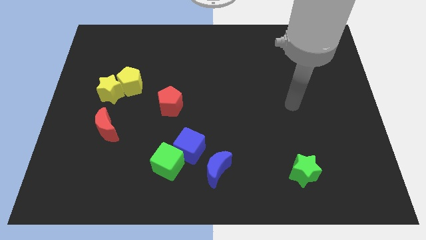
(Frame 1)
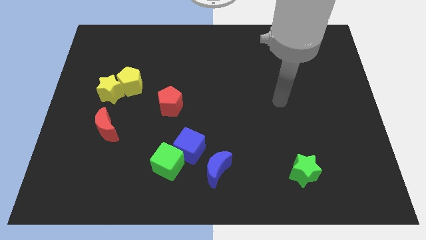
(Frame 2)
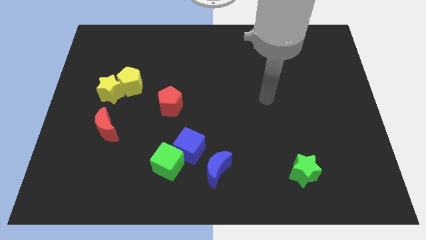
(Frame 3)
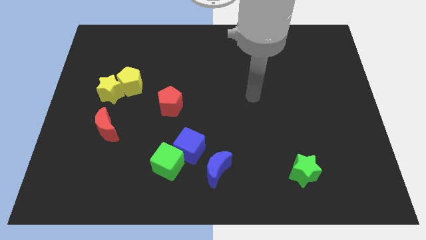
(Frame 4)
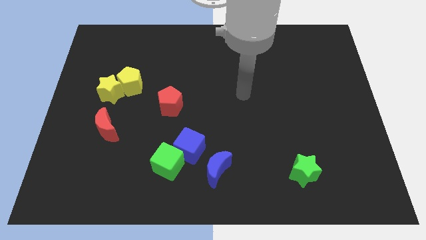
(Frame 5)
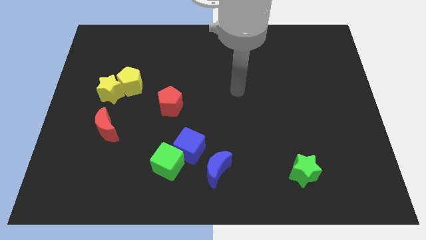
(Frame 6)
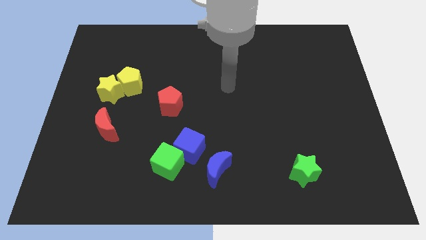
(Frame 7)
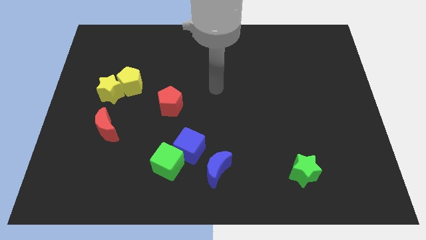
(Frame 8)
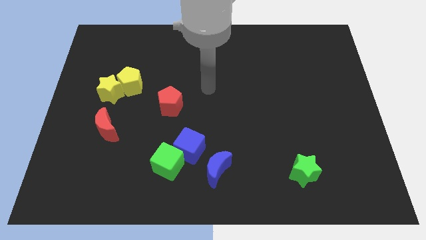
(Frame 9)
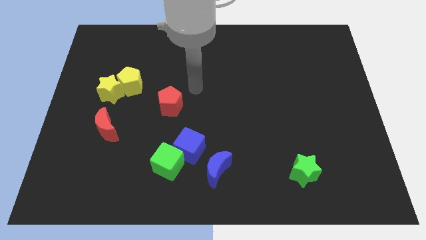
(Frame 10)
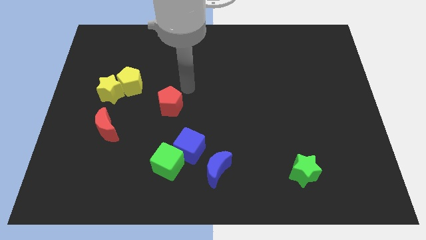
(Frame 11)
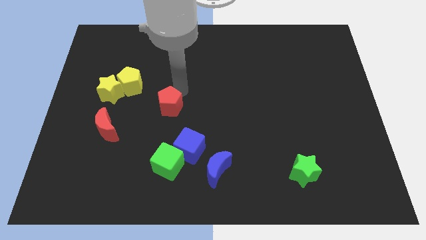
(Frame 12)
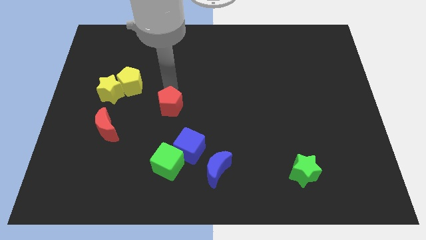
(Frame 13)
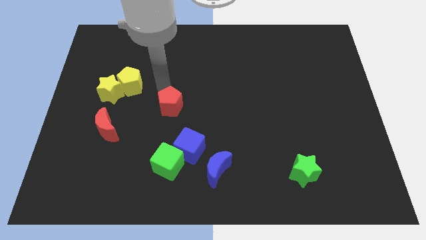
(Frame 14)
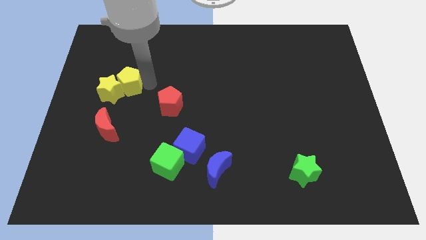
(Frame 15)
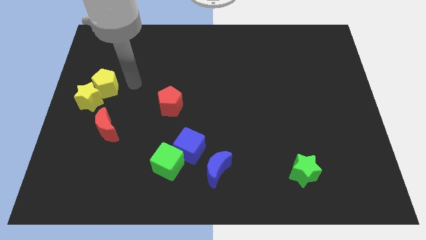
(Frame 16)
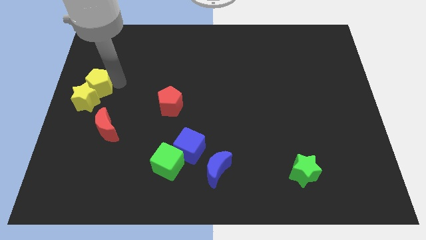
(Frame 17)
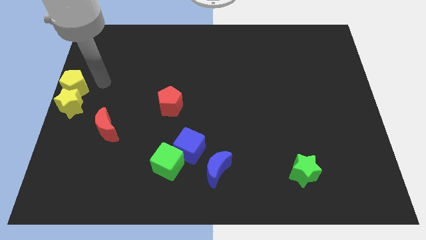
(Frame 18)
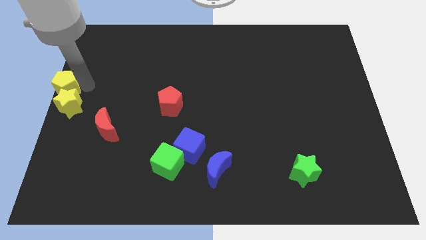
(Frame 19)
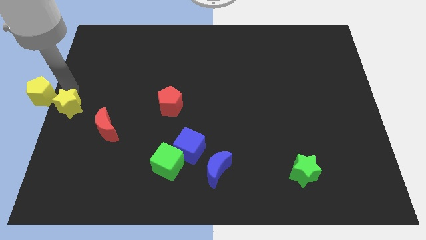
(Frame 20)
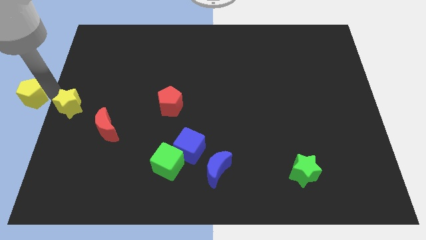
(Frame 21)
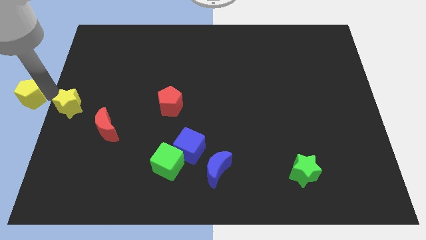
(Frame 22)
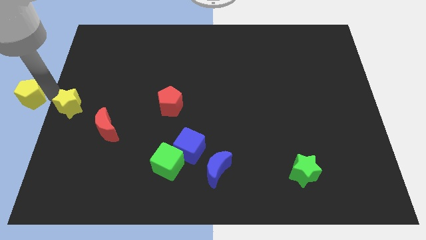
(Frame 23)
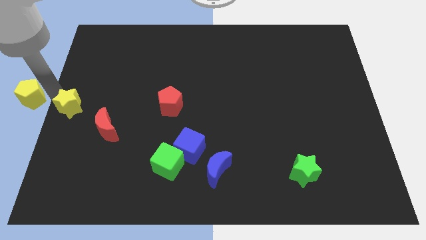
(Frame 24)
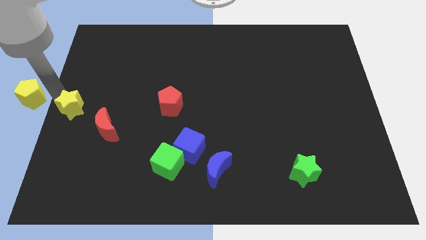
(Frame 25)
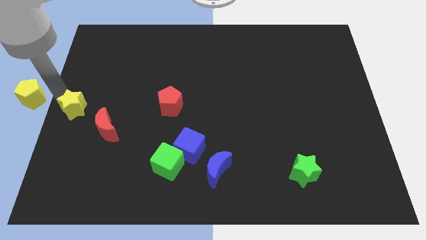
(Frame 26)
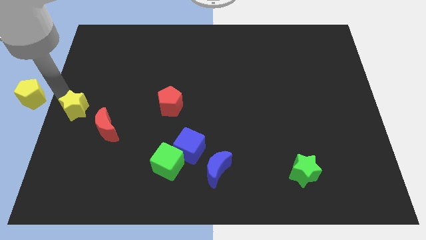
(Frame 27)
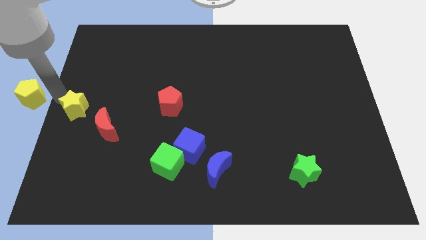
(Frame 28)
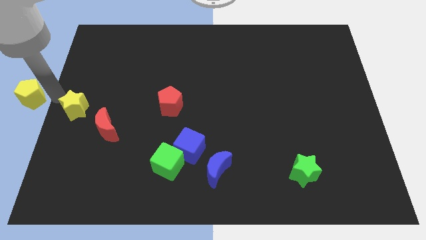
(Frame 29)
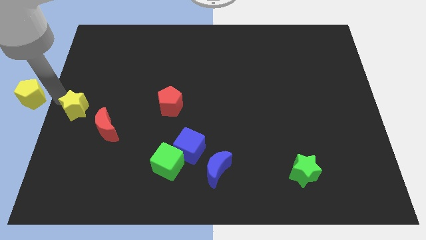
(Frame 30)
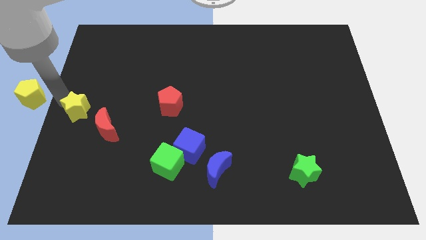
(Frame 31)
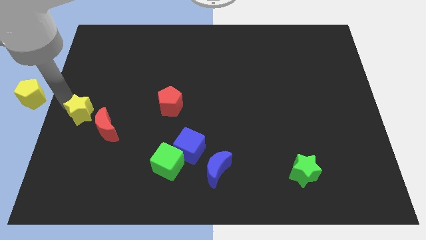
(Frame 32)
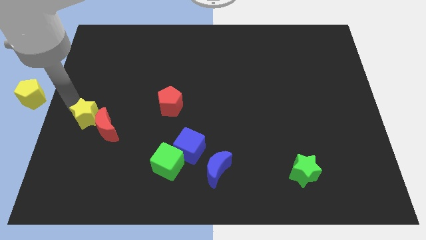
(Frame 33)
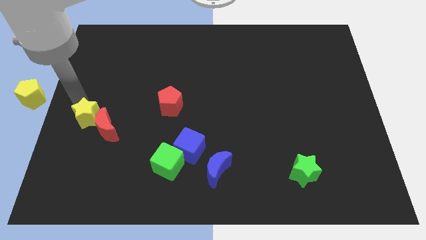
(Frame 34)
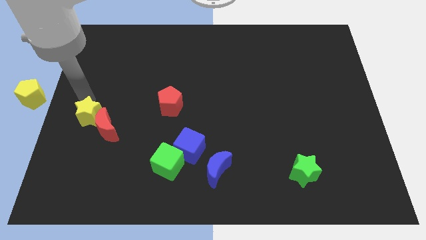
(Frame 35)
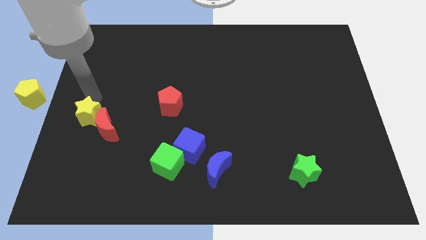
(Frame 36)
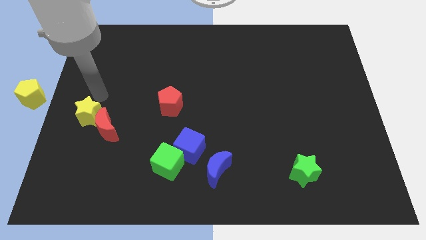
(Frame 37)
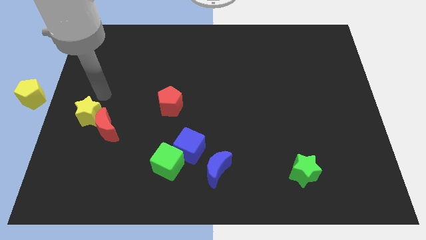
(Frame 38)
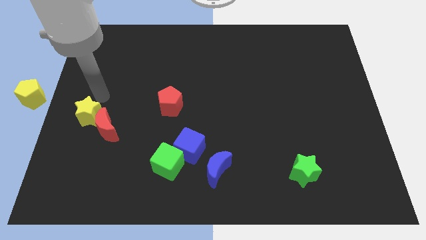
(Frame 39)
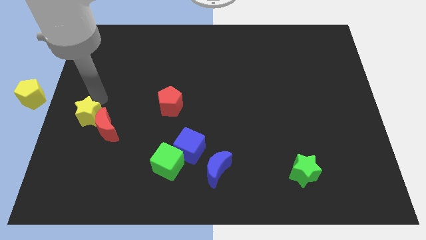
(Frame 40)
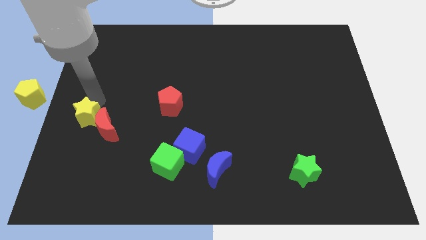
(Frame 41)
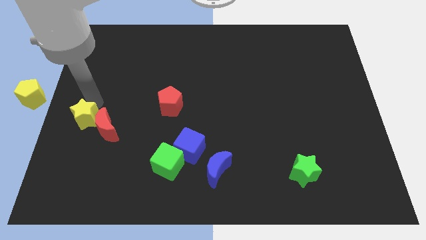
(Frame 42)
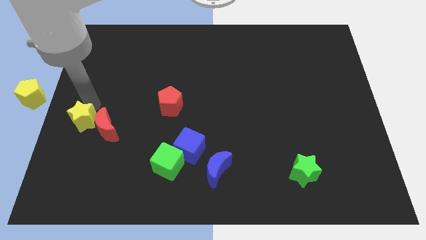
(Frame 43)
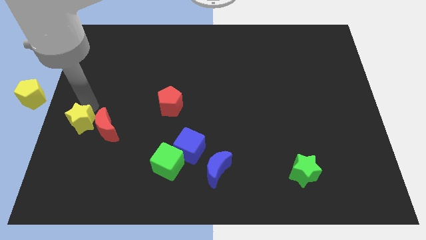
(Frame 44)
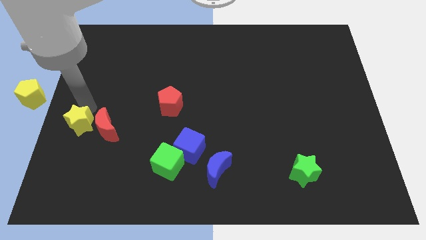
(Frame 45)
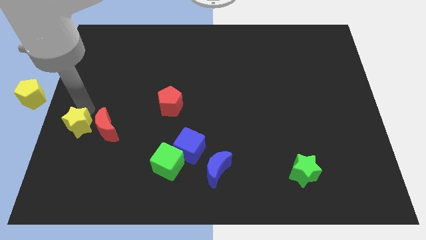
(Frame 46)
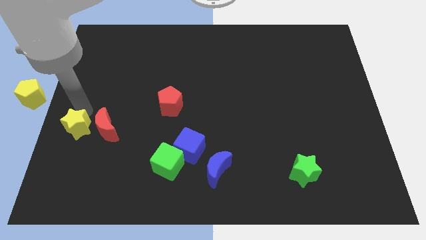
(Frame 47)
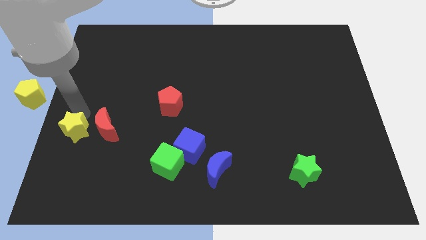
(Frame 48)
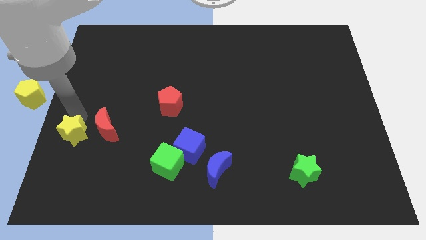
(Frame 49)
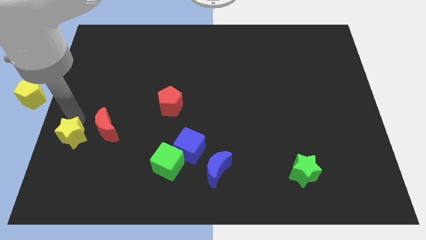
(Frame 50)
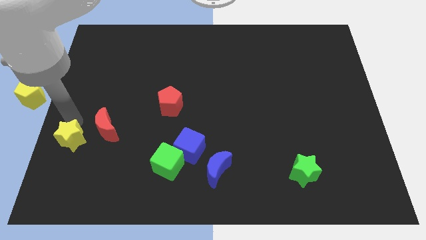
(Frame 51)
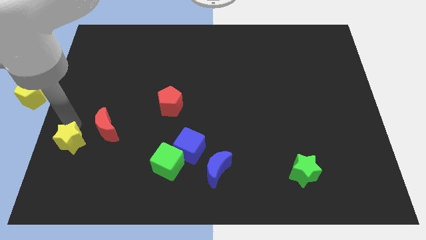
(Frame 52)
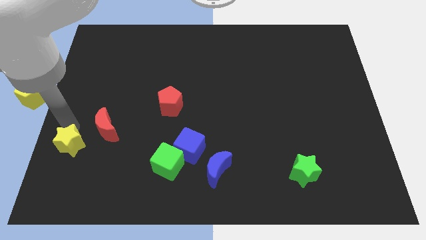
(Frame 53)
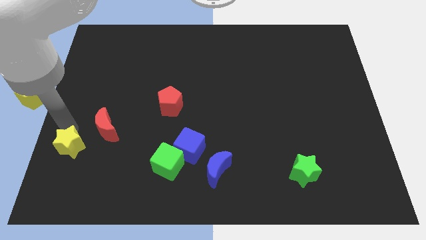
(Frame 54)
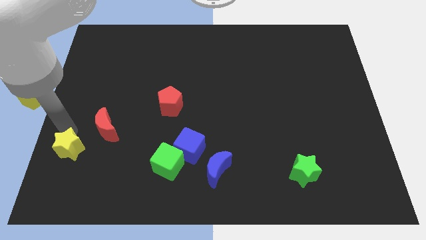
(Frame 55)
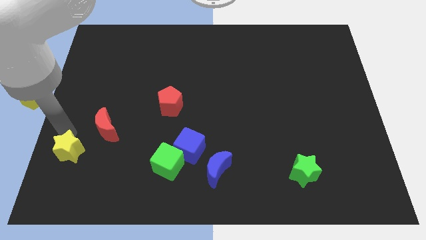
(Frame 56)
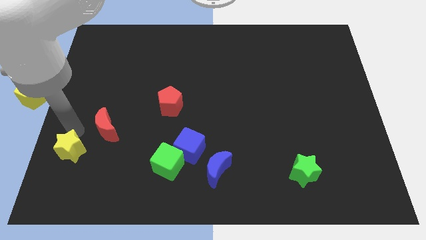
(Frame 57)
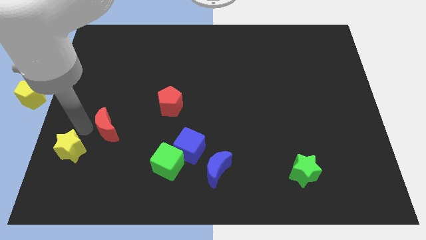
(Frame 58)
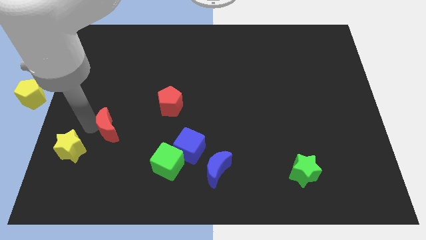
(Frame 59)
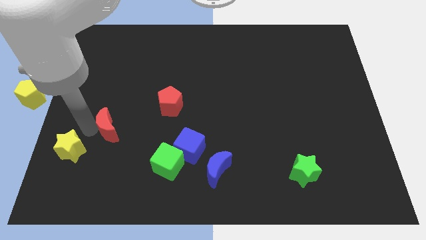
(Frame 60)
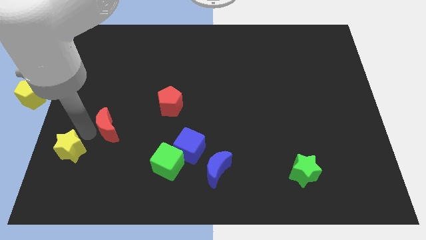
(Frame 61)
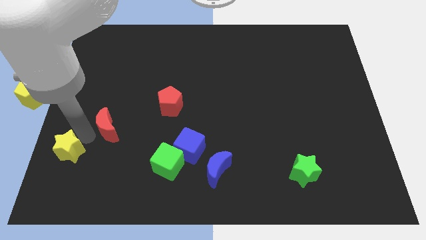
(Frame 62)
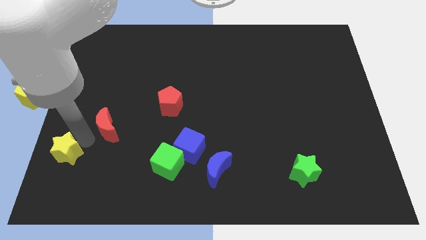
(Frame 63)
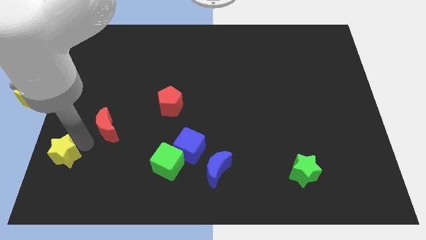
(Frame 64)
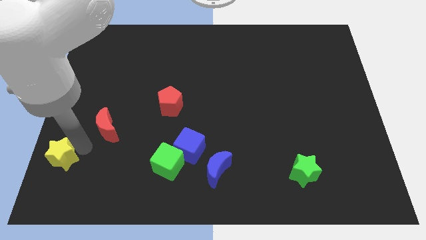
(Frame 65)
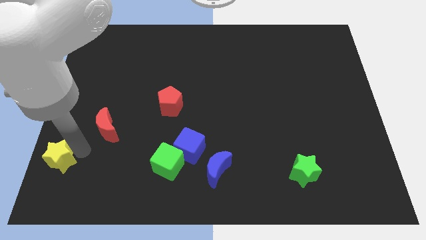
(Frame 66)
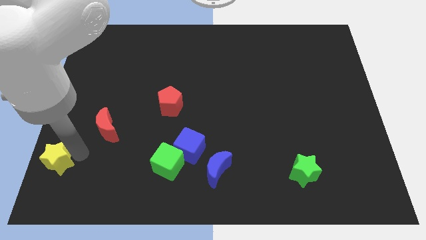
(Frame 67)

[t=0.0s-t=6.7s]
put the yellow star to the bottom left
